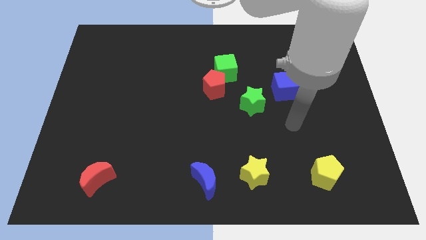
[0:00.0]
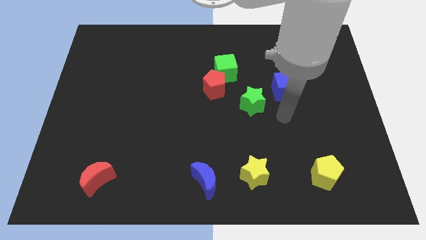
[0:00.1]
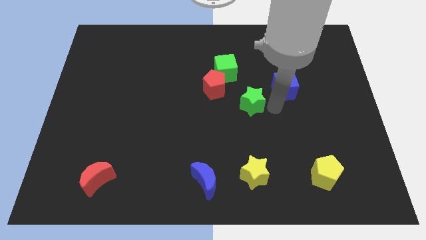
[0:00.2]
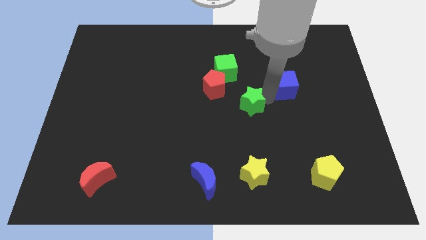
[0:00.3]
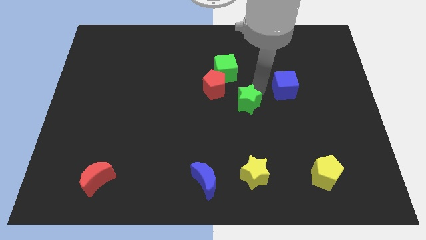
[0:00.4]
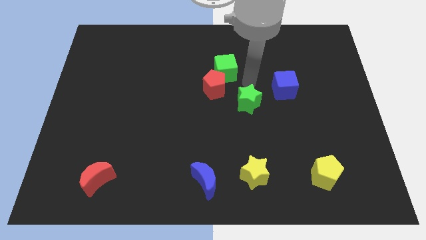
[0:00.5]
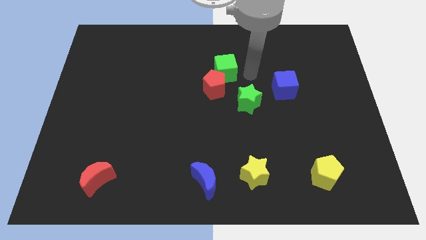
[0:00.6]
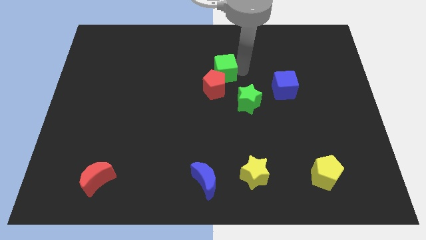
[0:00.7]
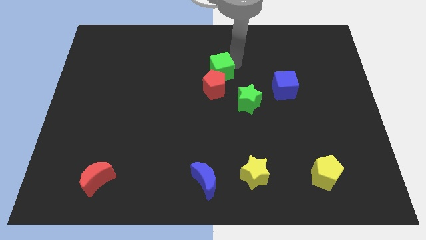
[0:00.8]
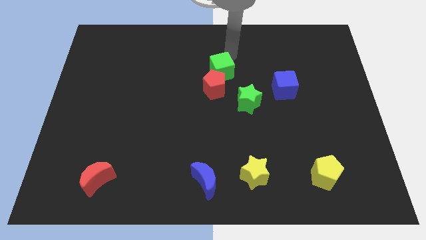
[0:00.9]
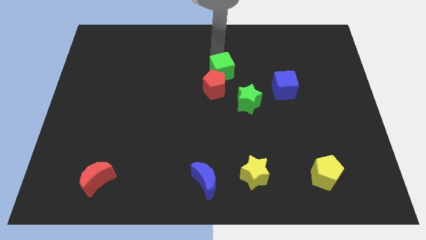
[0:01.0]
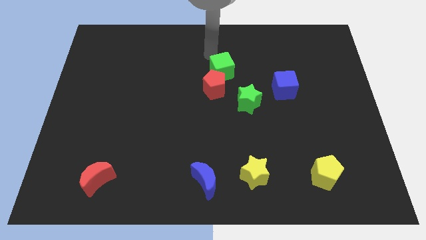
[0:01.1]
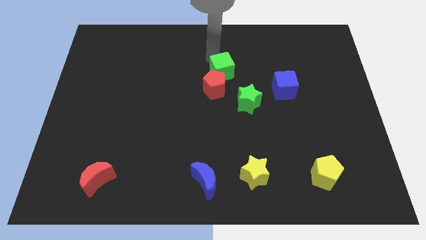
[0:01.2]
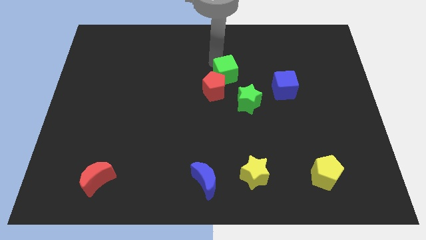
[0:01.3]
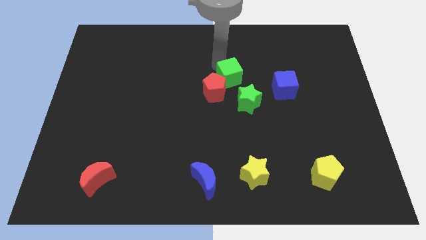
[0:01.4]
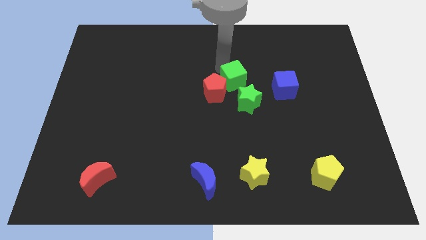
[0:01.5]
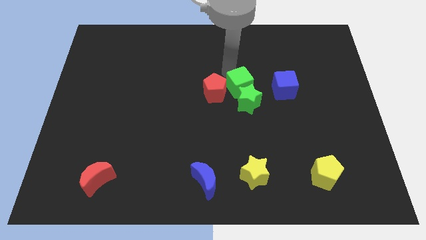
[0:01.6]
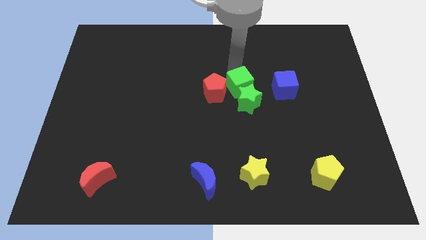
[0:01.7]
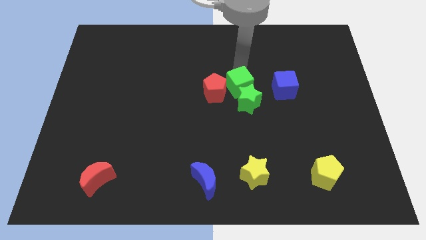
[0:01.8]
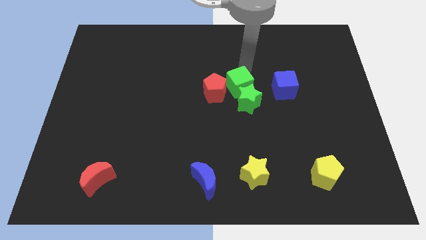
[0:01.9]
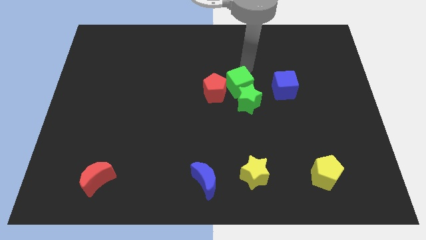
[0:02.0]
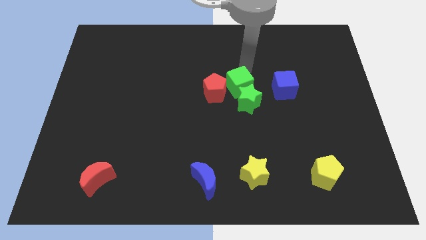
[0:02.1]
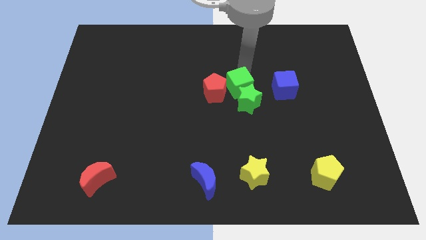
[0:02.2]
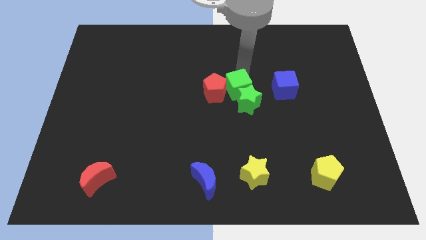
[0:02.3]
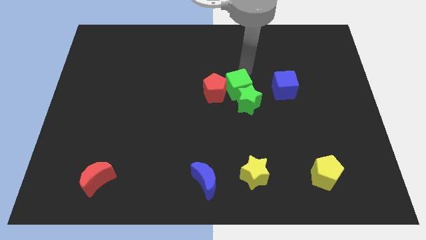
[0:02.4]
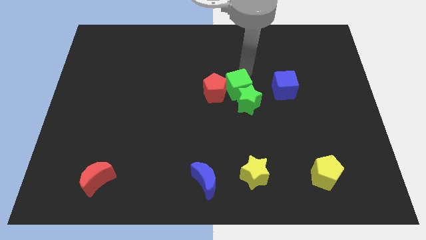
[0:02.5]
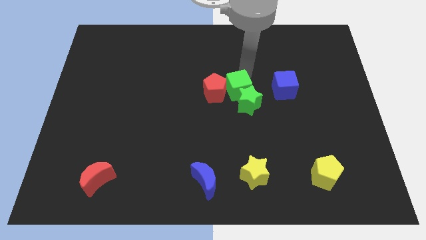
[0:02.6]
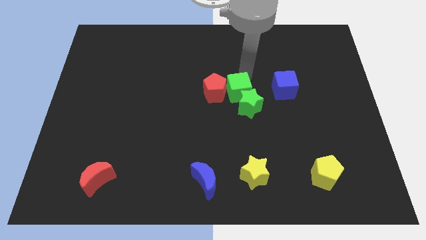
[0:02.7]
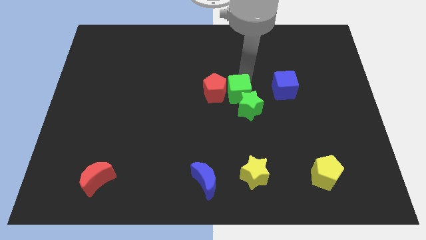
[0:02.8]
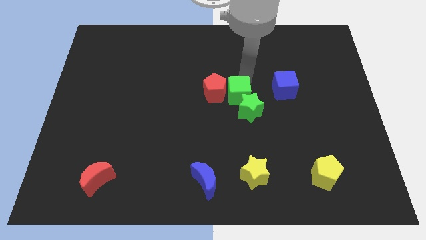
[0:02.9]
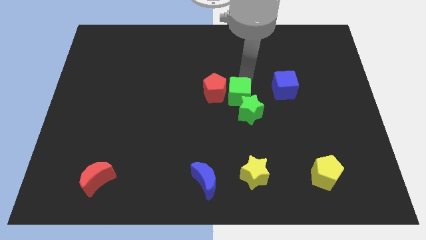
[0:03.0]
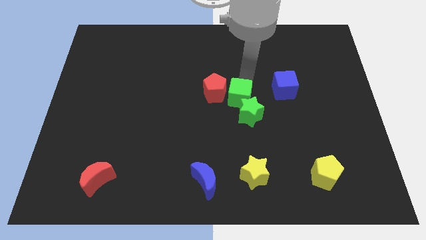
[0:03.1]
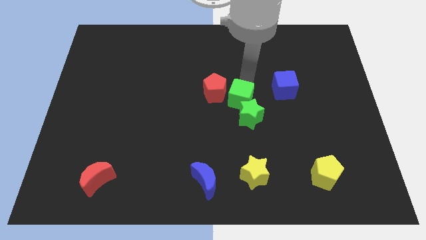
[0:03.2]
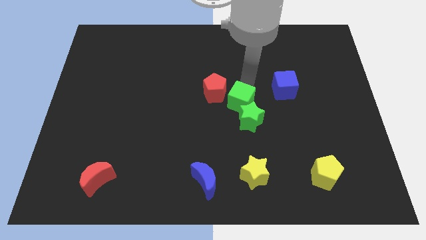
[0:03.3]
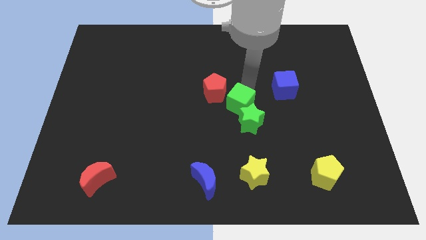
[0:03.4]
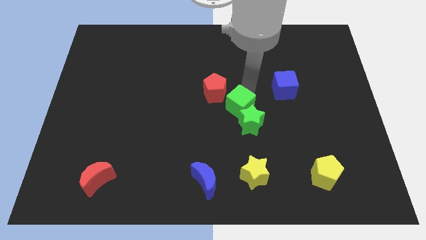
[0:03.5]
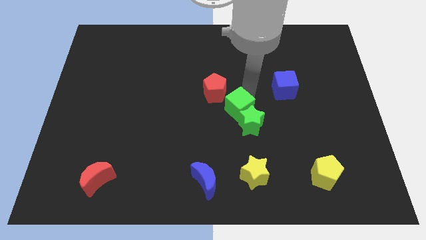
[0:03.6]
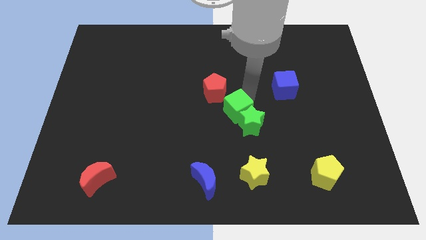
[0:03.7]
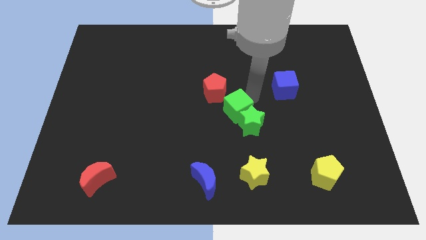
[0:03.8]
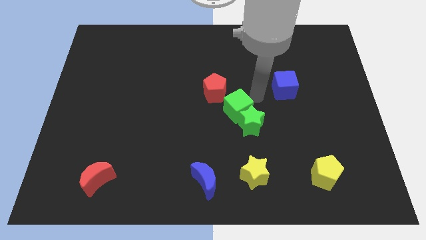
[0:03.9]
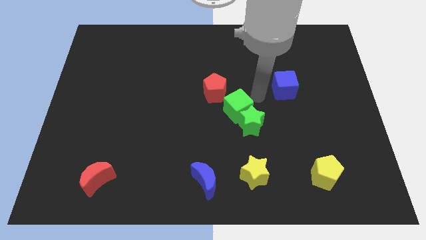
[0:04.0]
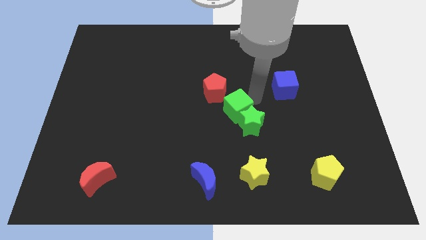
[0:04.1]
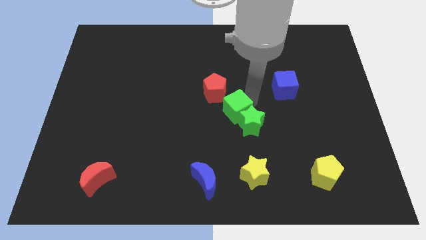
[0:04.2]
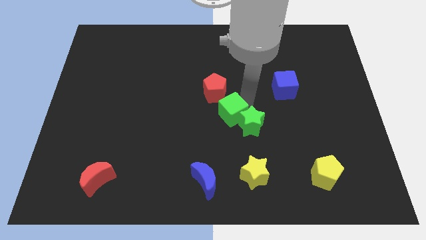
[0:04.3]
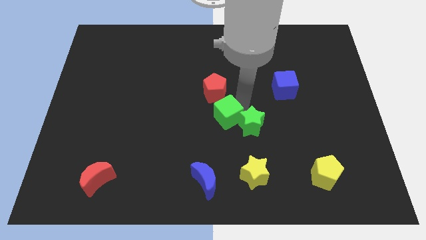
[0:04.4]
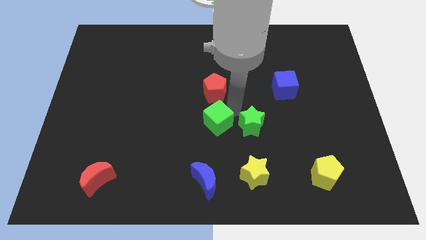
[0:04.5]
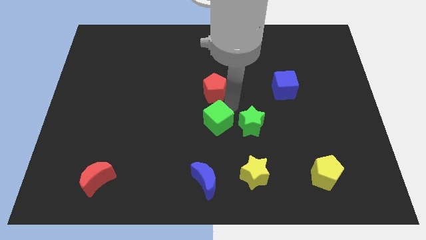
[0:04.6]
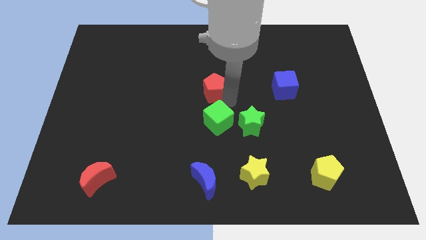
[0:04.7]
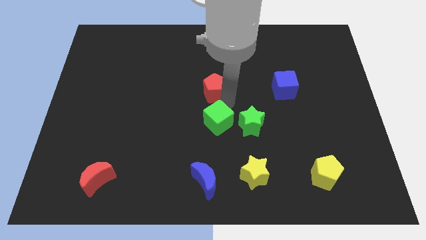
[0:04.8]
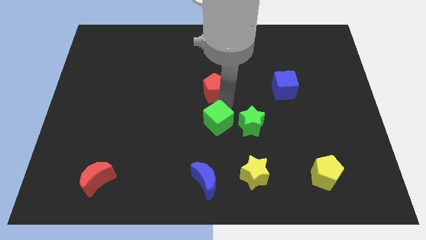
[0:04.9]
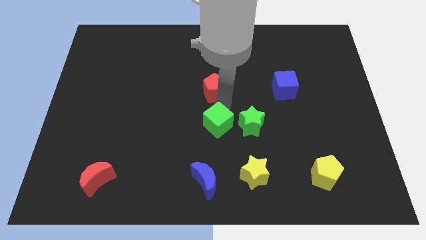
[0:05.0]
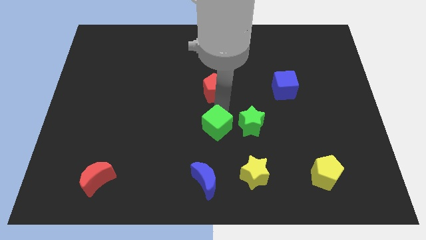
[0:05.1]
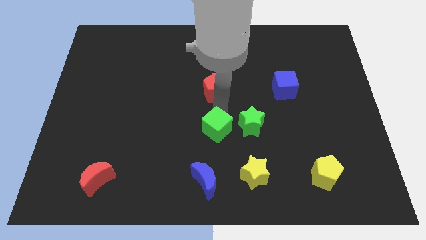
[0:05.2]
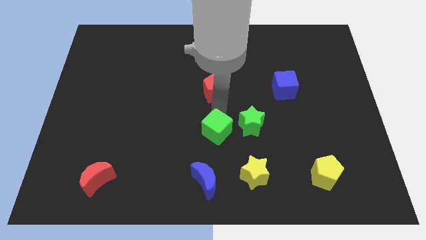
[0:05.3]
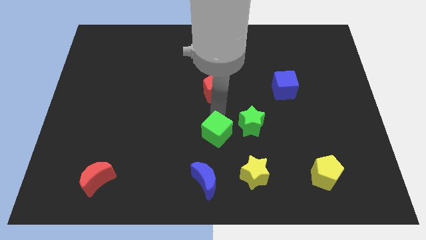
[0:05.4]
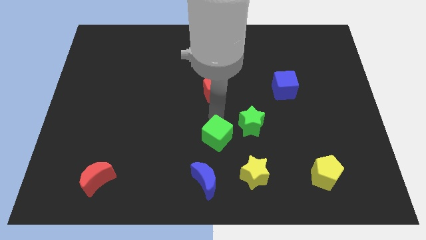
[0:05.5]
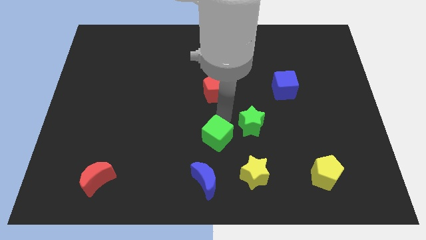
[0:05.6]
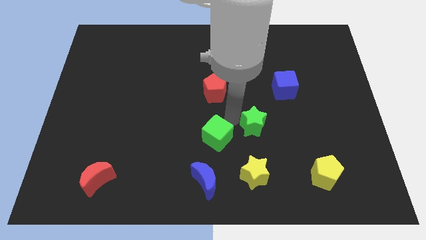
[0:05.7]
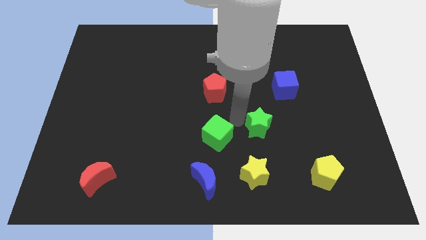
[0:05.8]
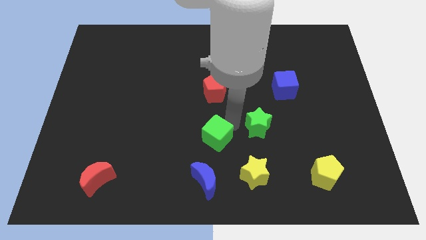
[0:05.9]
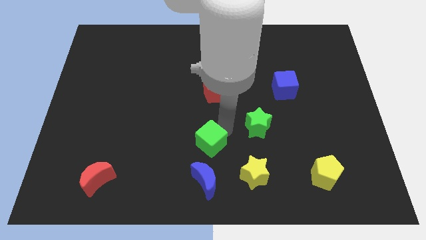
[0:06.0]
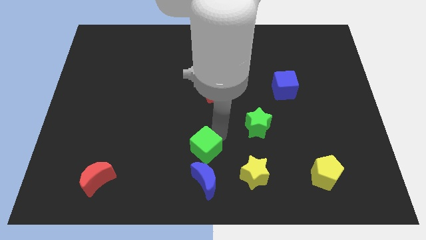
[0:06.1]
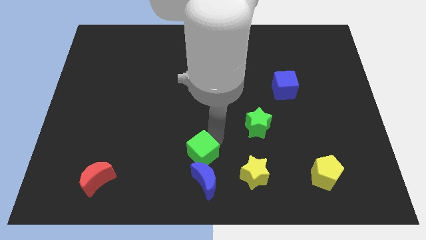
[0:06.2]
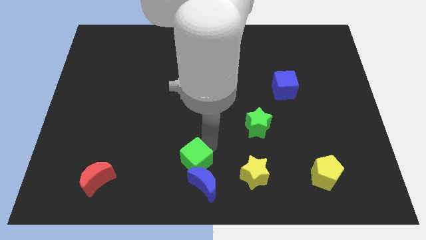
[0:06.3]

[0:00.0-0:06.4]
put the green cube to the bottom side
